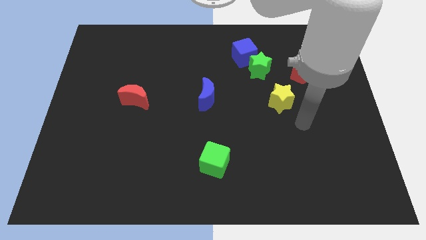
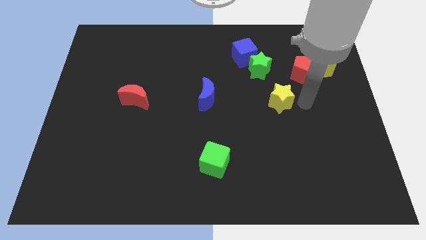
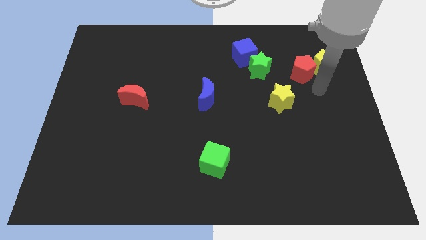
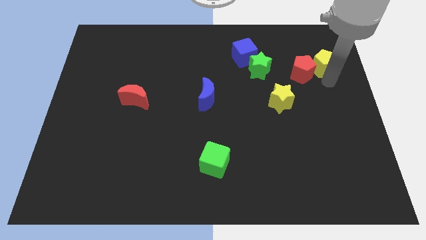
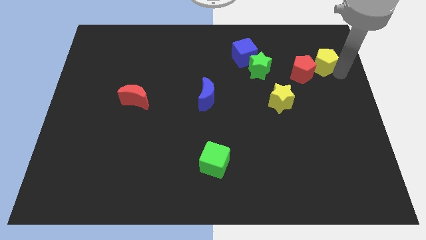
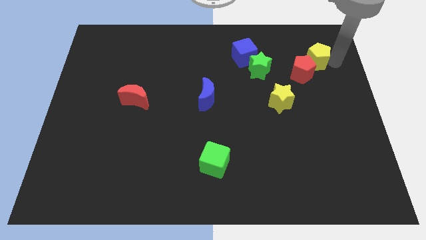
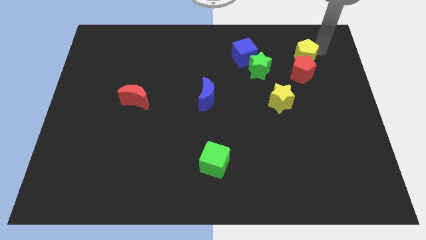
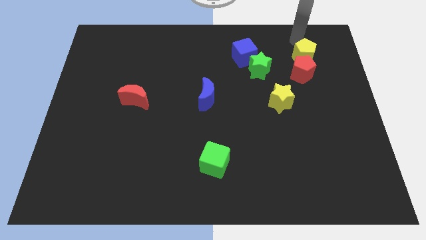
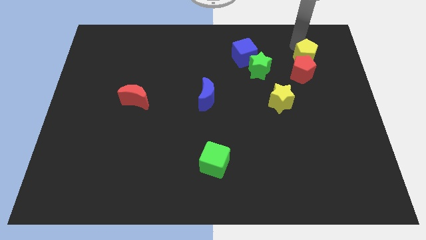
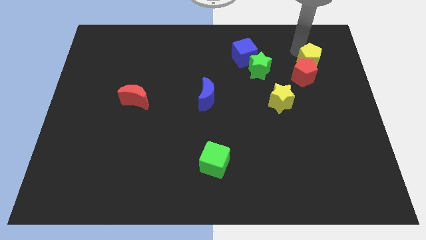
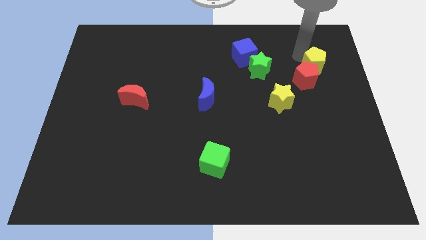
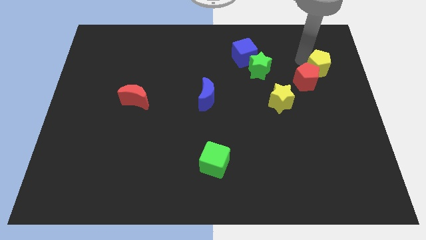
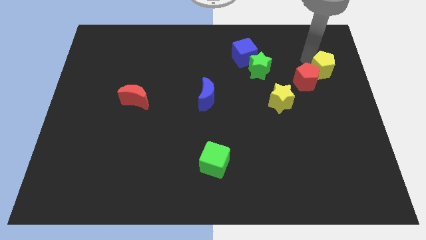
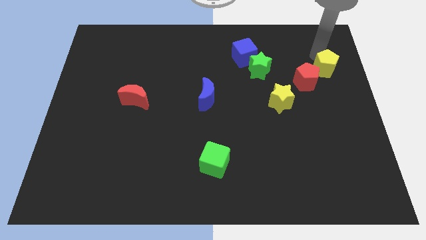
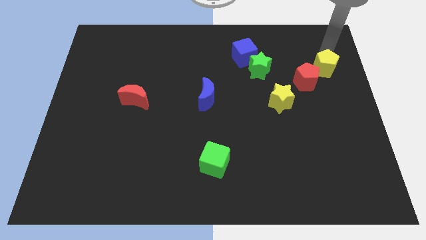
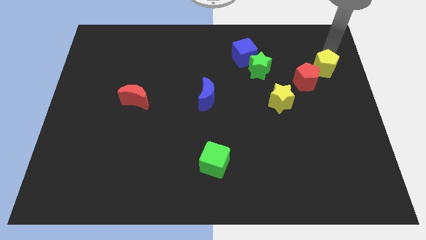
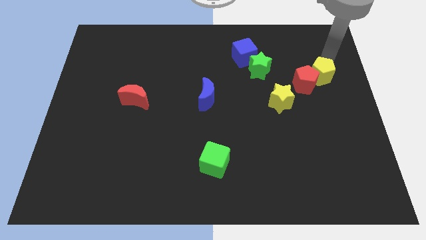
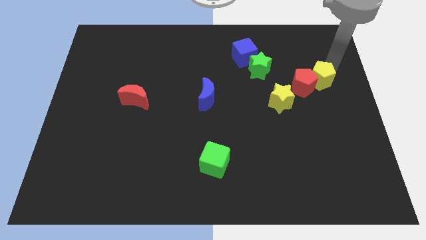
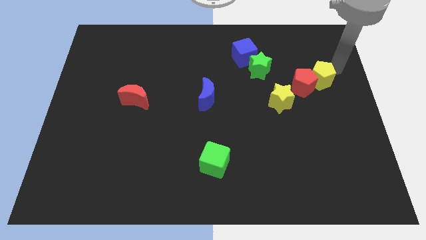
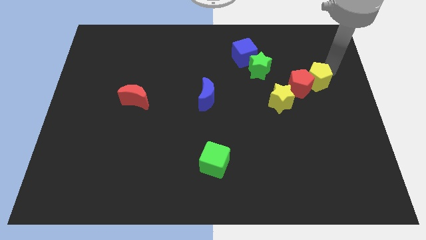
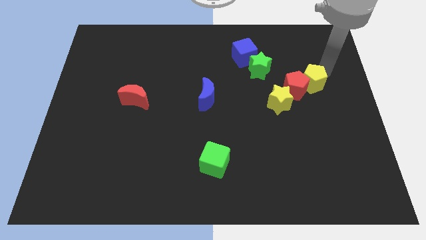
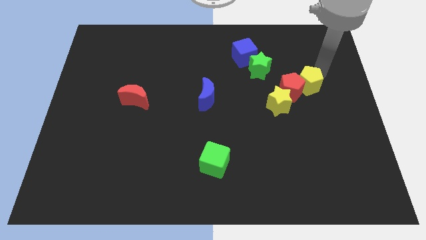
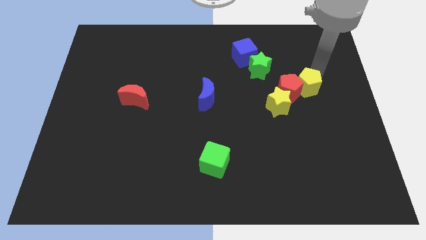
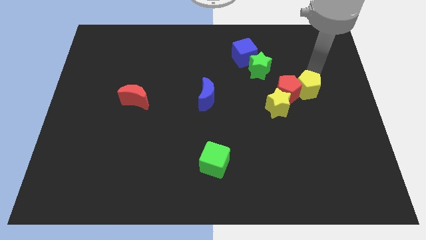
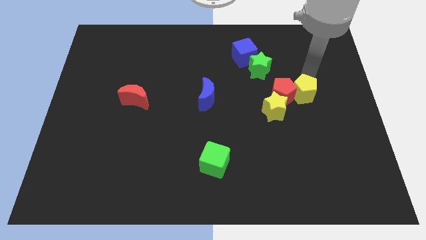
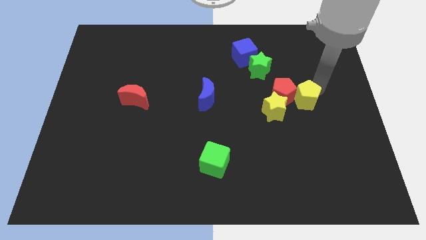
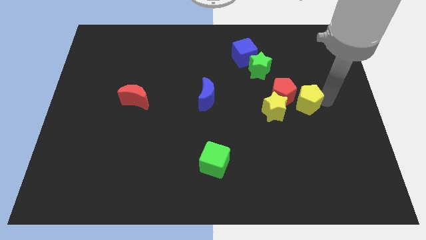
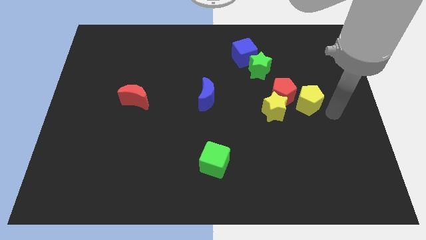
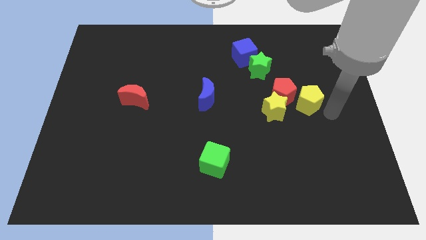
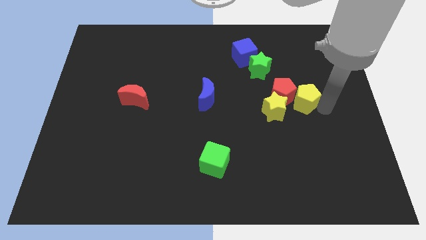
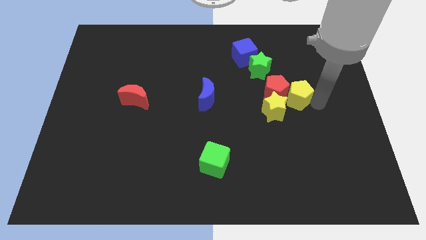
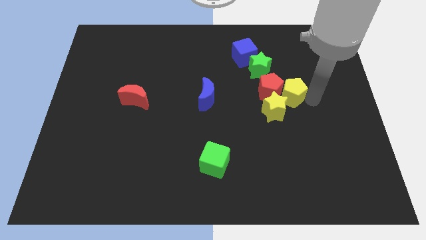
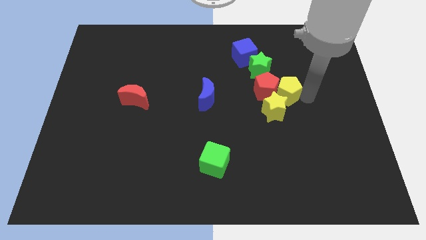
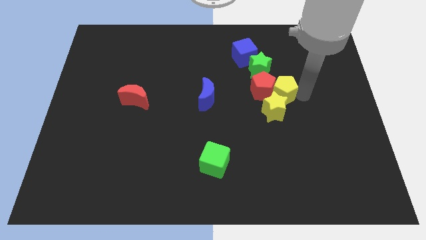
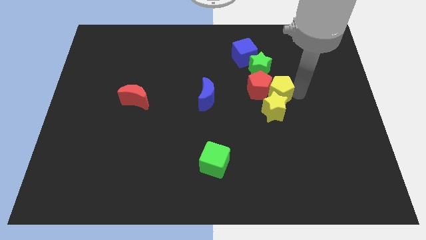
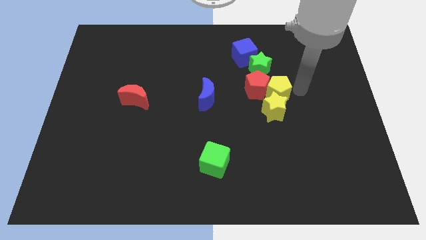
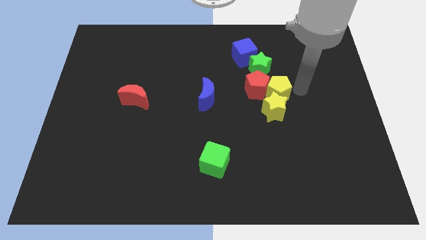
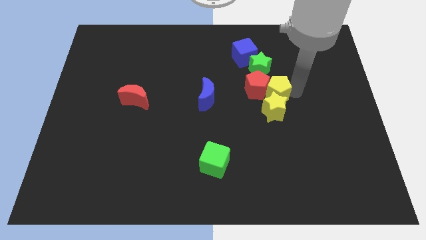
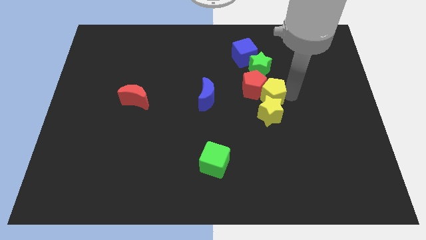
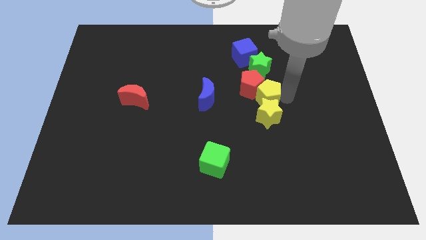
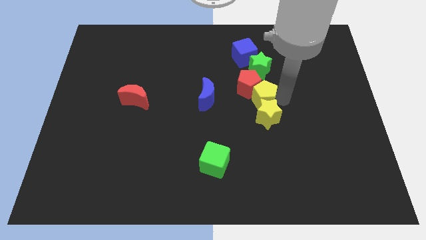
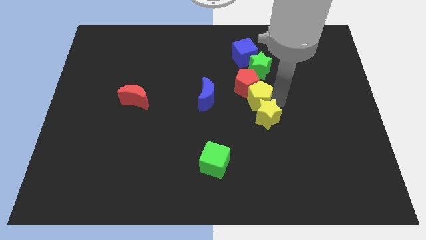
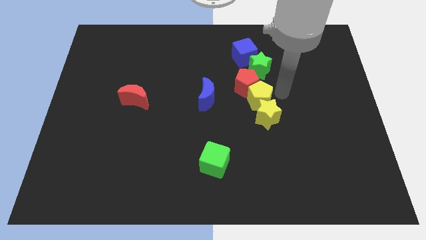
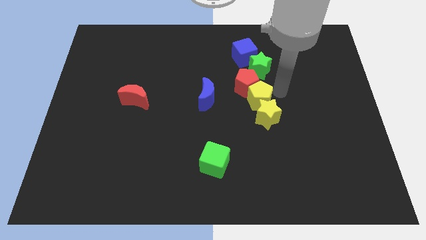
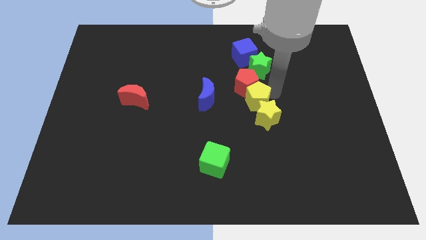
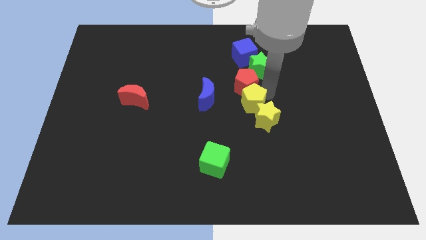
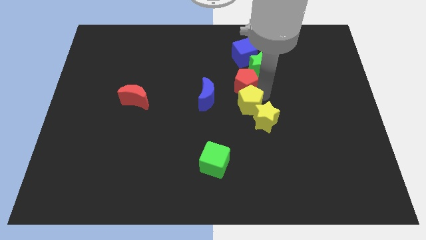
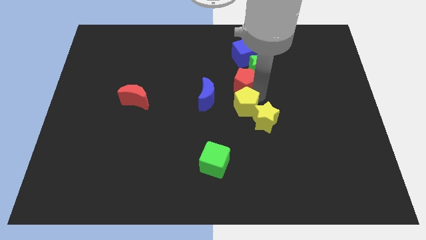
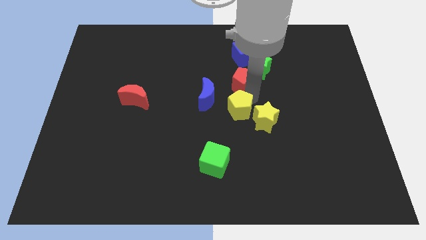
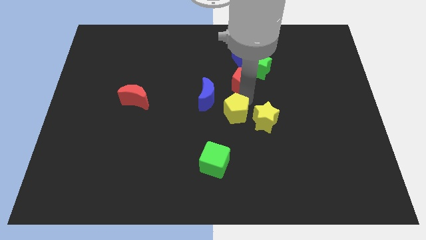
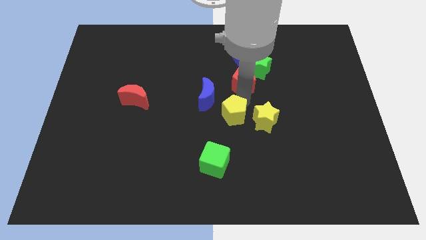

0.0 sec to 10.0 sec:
move the yellow pentagon above the green cube

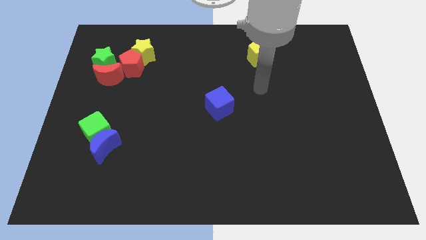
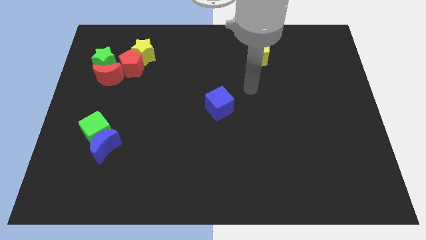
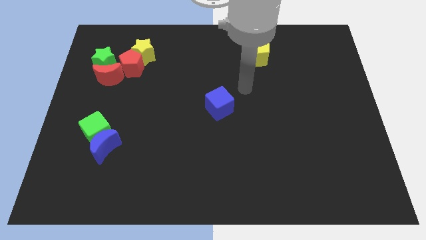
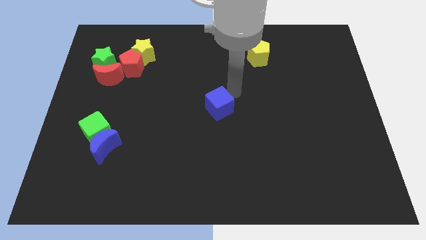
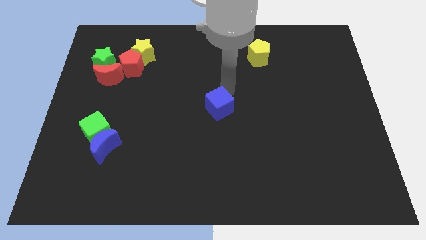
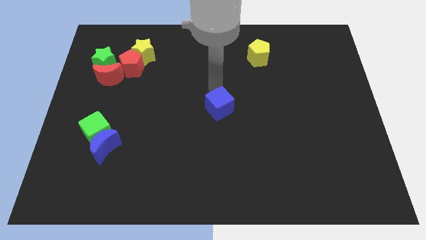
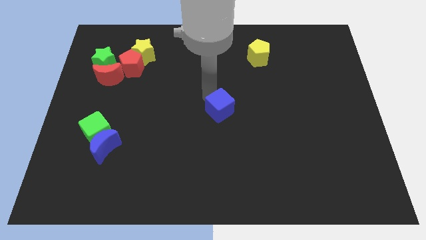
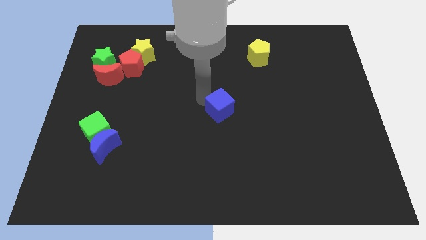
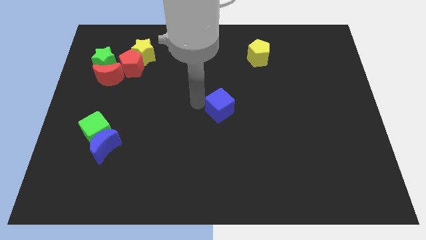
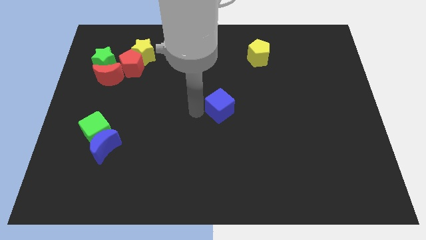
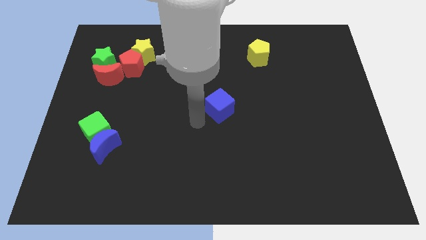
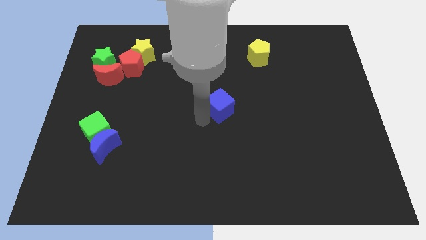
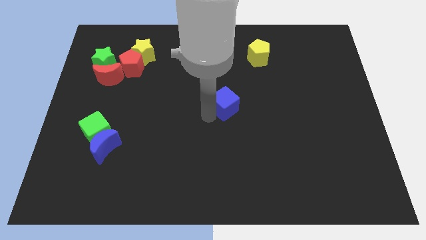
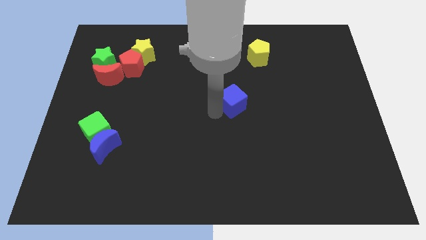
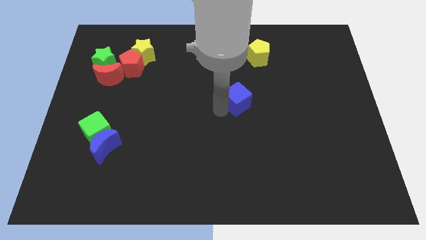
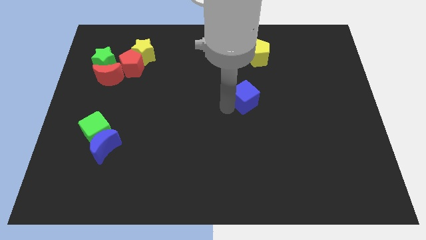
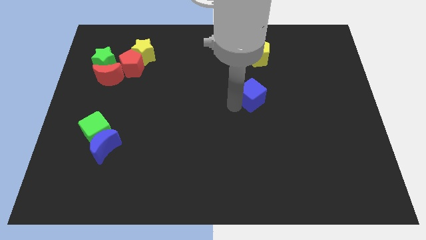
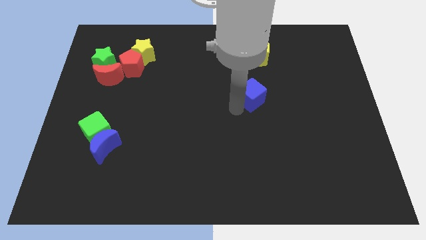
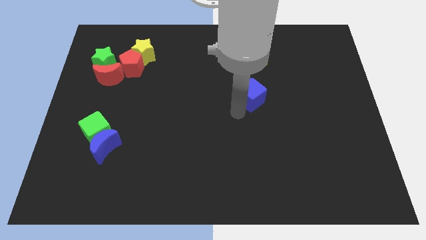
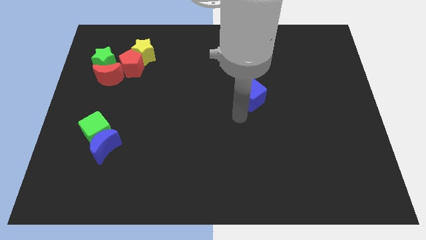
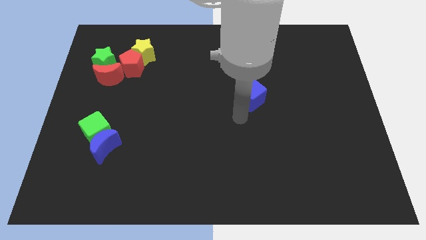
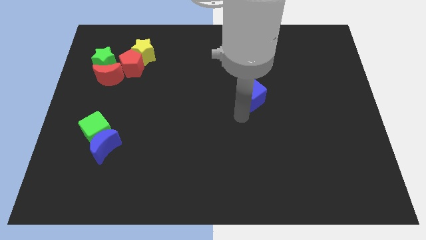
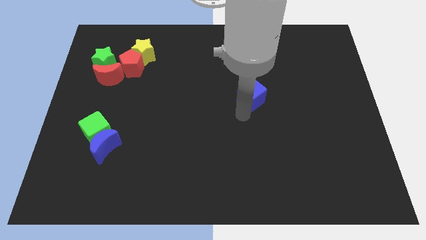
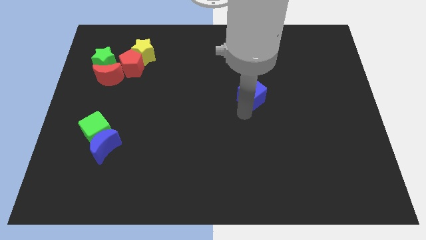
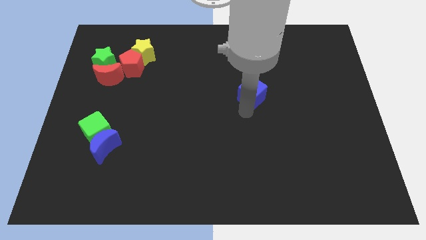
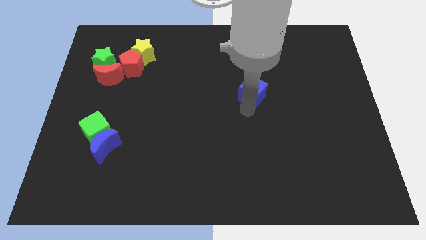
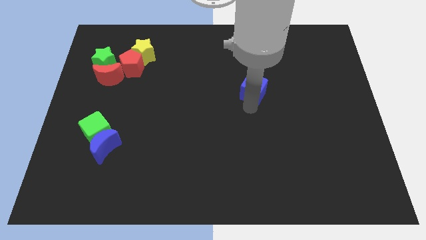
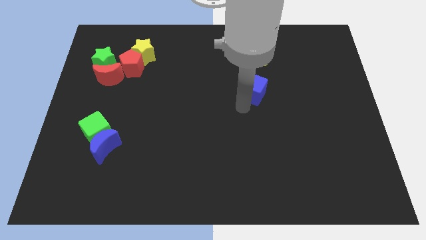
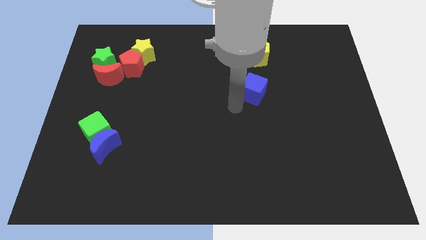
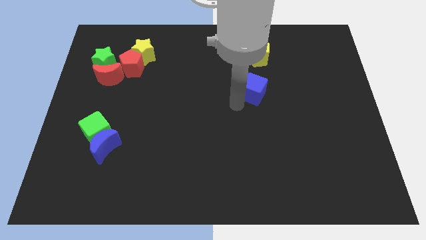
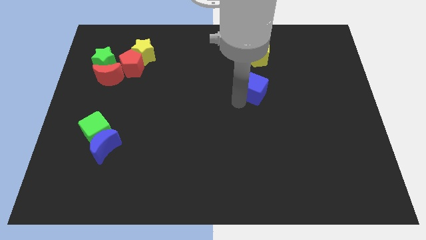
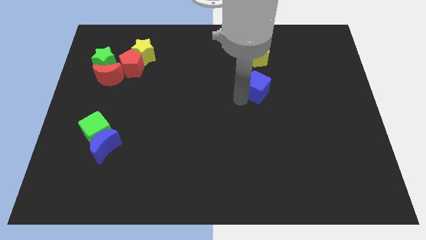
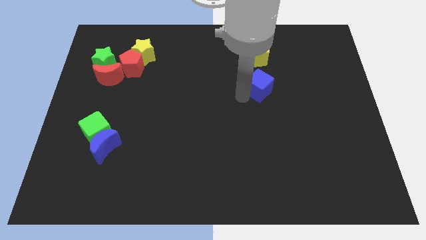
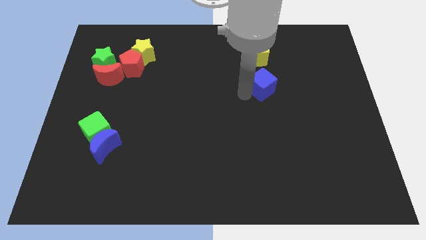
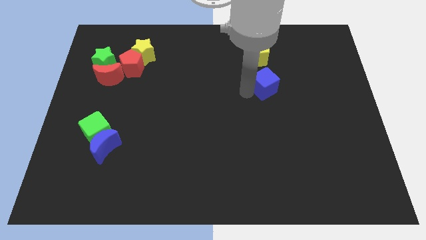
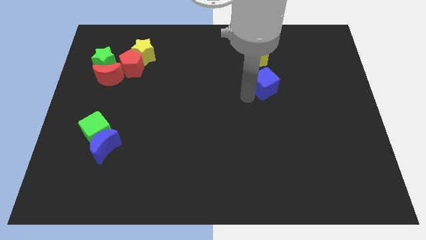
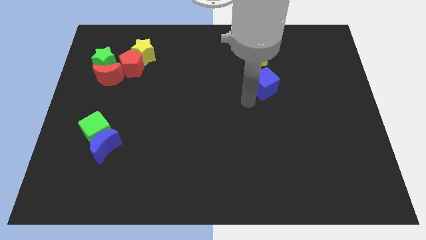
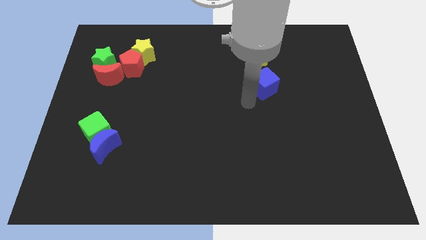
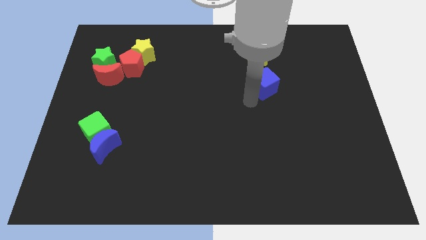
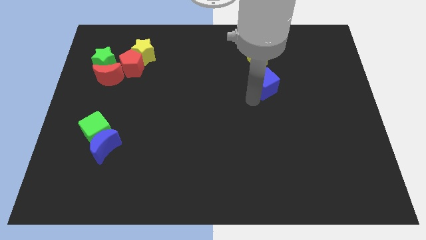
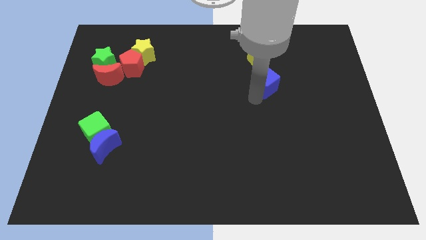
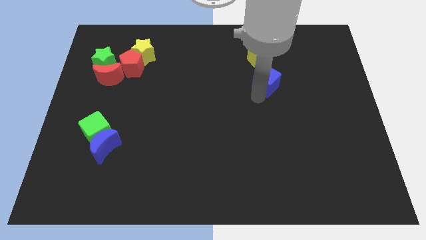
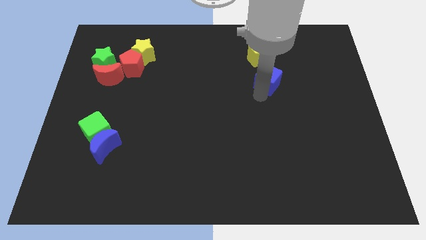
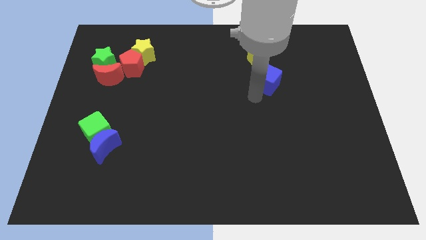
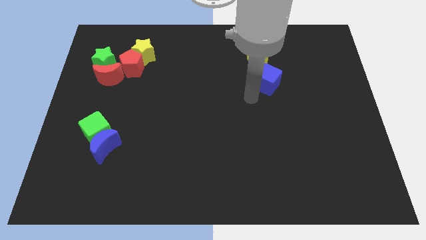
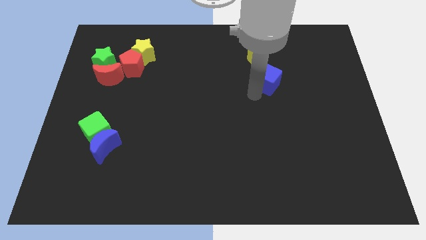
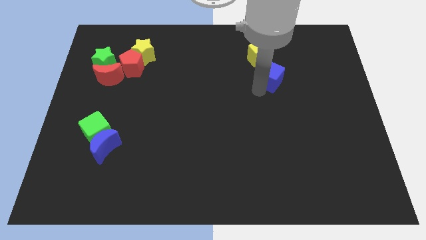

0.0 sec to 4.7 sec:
put the blue cube to the bottom right side of the yellow pentagon
